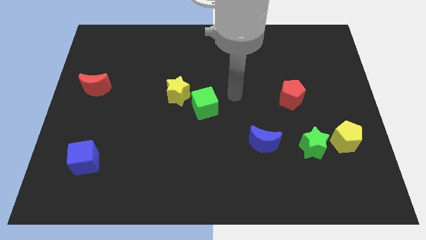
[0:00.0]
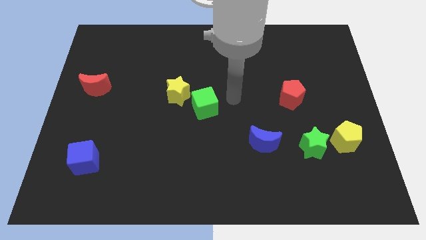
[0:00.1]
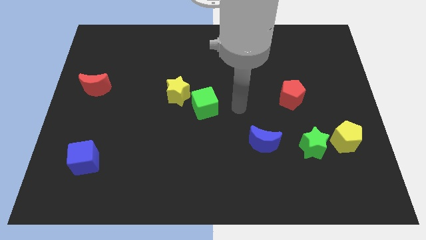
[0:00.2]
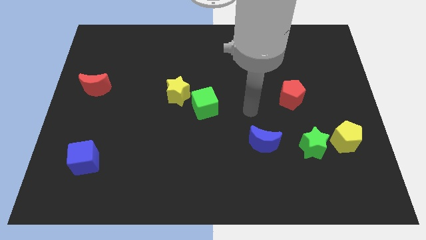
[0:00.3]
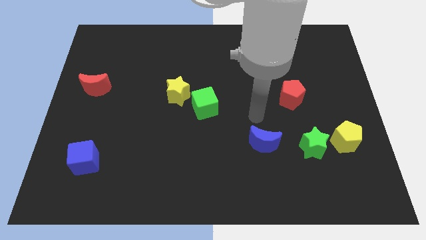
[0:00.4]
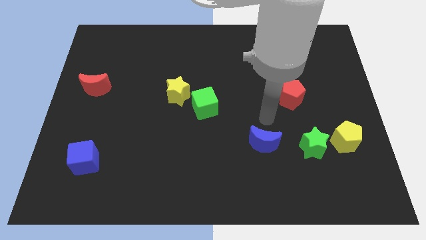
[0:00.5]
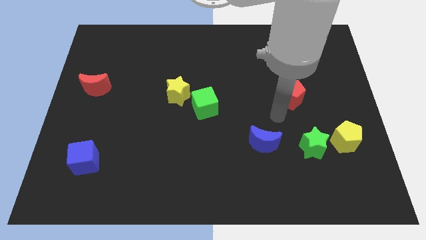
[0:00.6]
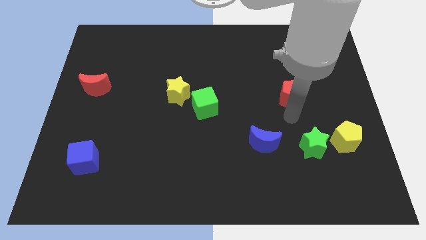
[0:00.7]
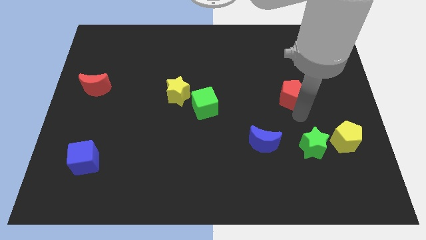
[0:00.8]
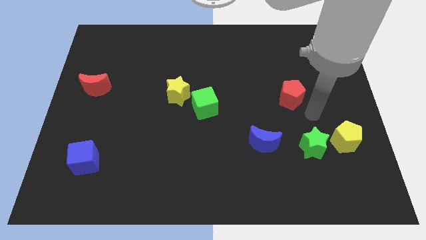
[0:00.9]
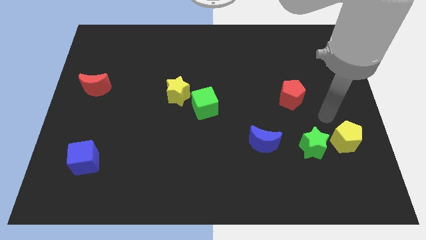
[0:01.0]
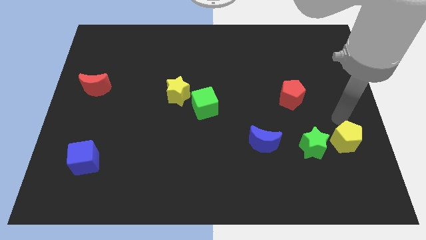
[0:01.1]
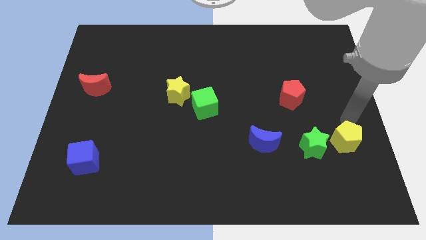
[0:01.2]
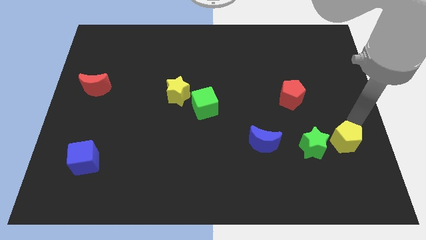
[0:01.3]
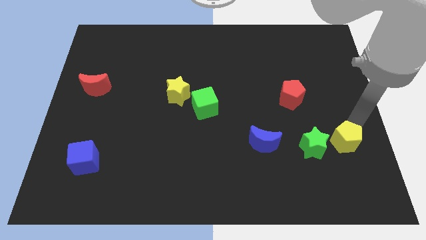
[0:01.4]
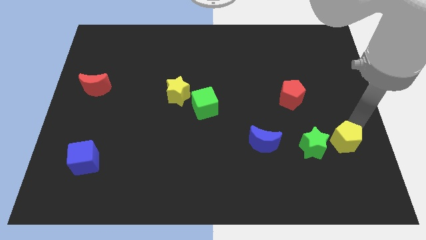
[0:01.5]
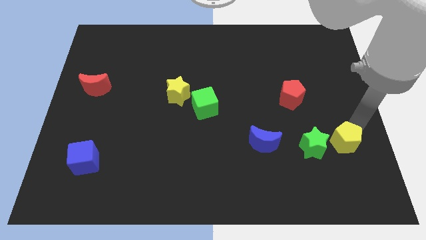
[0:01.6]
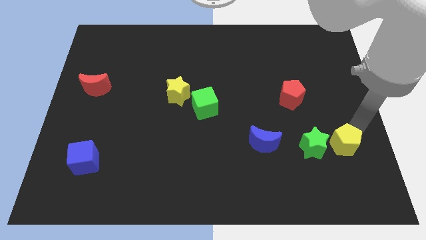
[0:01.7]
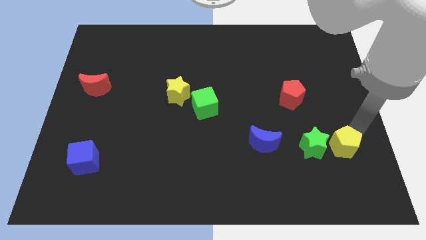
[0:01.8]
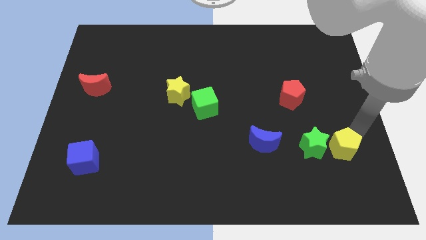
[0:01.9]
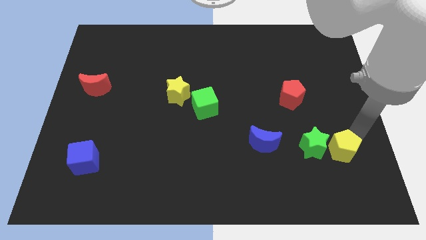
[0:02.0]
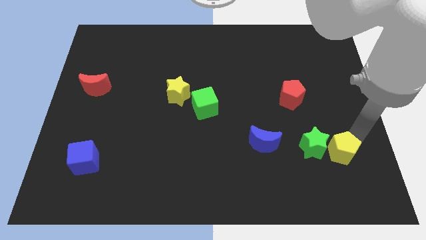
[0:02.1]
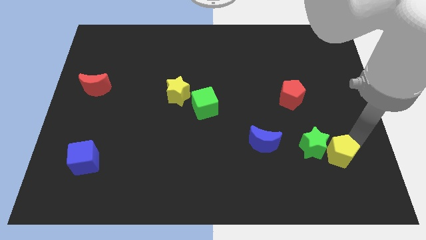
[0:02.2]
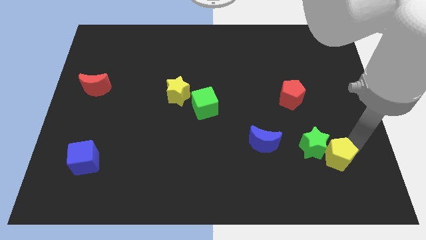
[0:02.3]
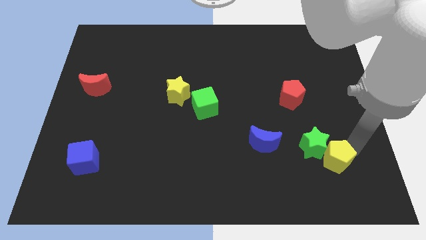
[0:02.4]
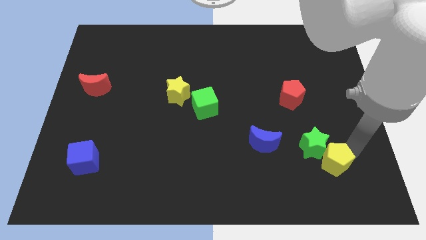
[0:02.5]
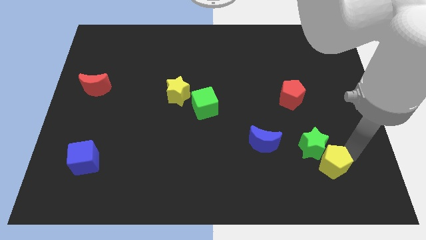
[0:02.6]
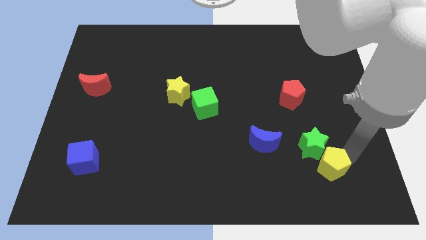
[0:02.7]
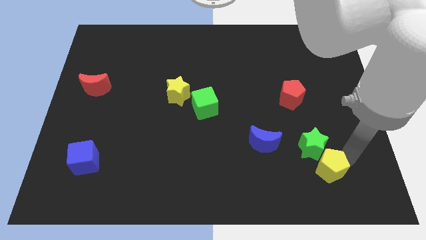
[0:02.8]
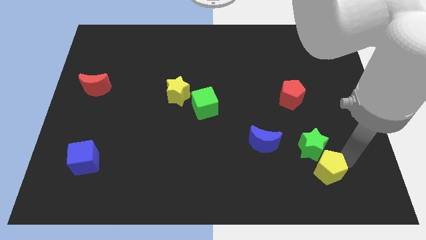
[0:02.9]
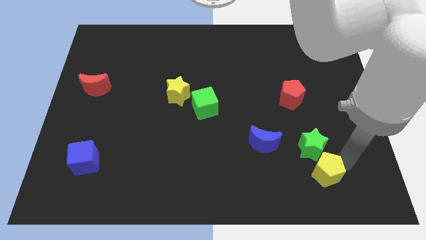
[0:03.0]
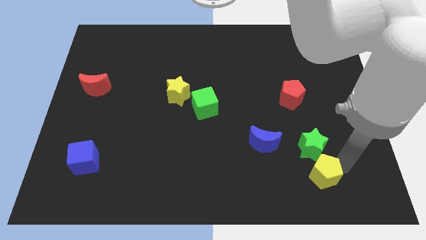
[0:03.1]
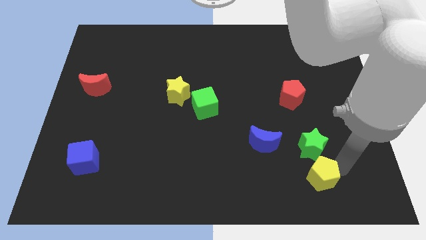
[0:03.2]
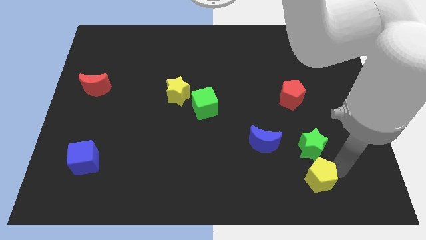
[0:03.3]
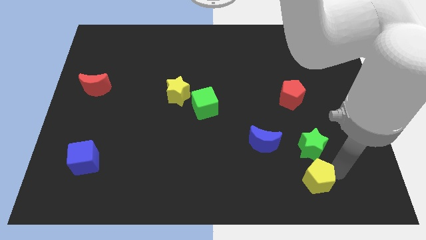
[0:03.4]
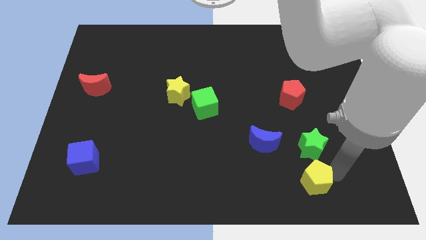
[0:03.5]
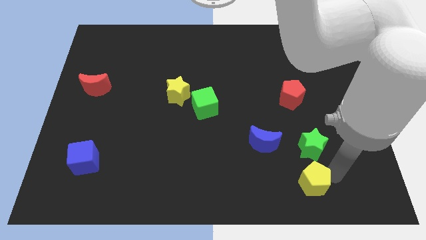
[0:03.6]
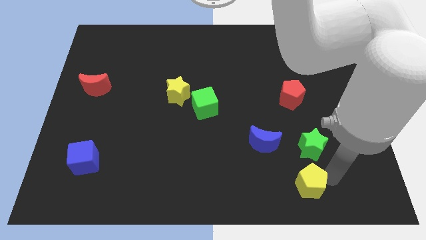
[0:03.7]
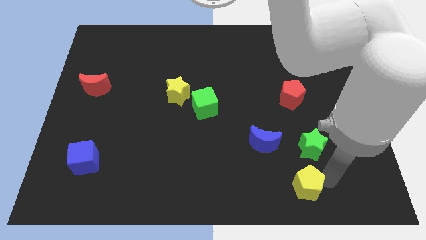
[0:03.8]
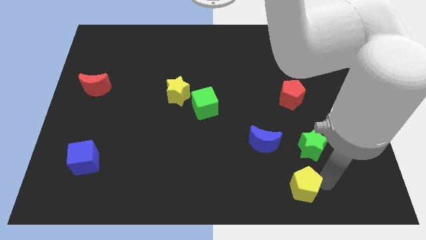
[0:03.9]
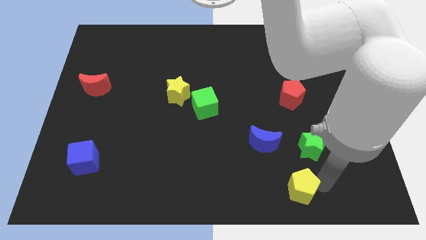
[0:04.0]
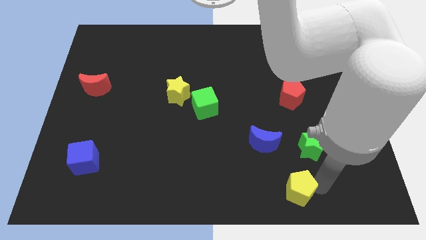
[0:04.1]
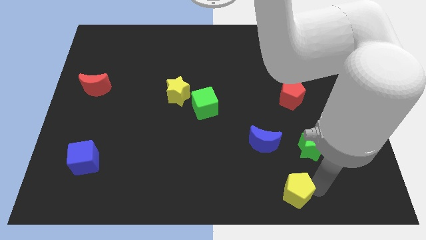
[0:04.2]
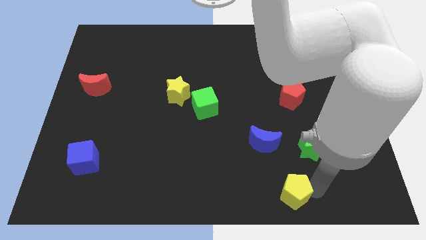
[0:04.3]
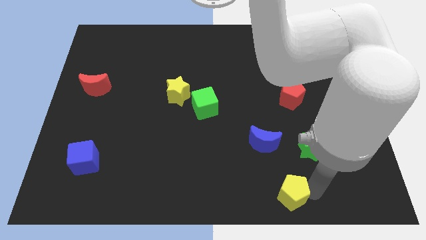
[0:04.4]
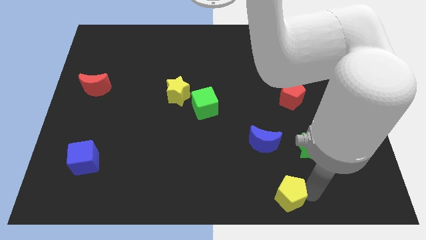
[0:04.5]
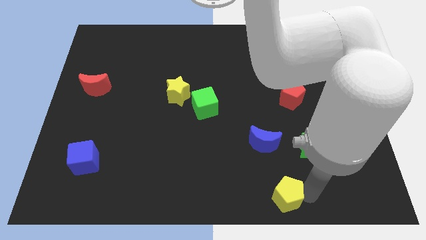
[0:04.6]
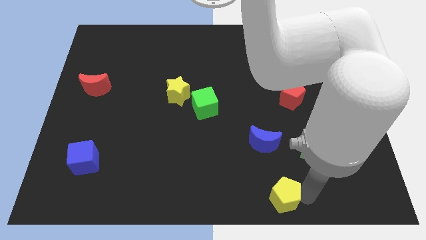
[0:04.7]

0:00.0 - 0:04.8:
slide the yellow pentagon to the bottom side

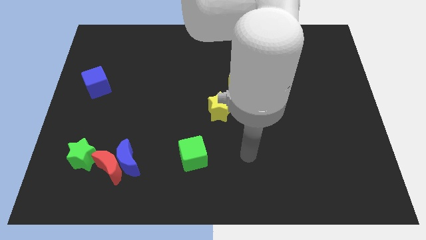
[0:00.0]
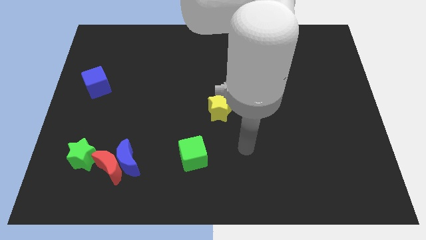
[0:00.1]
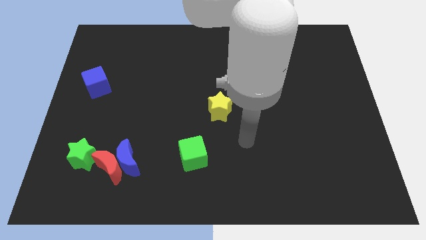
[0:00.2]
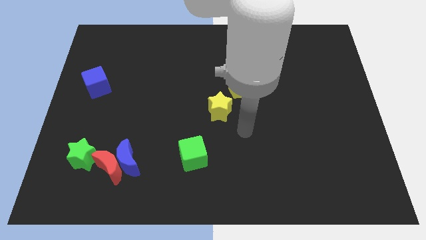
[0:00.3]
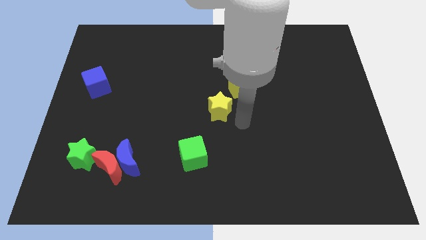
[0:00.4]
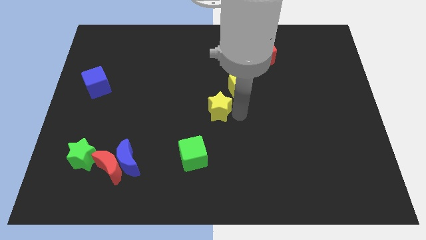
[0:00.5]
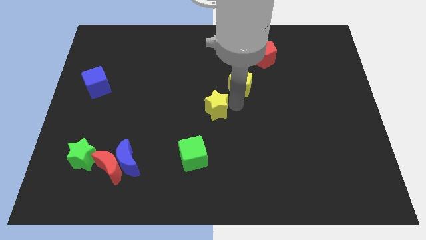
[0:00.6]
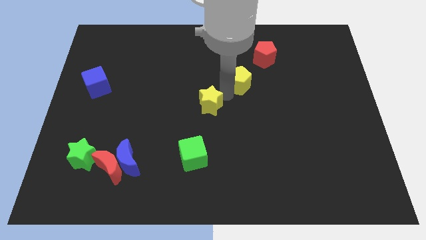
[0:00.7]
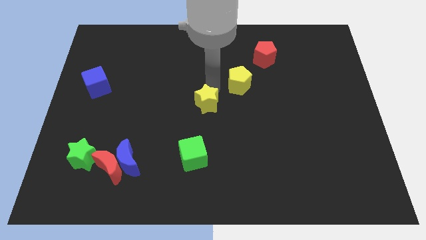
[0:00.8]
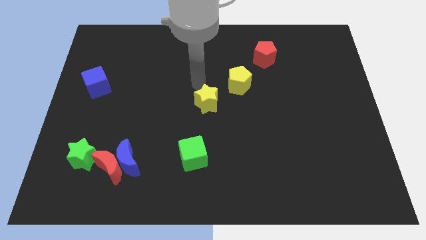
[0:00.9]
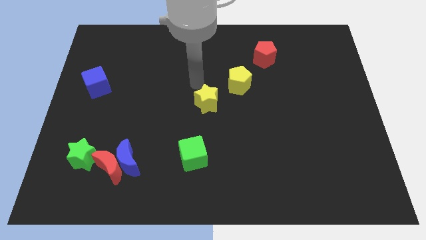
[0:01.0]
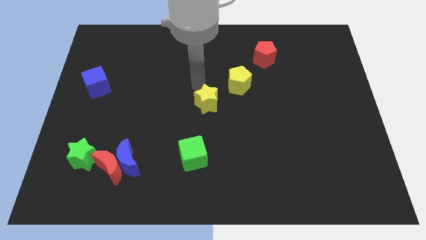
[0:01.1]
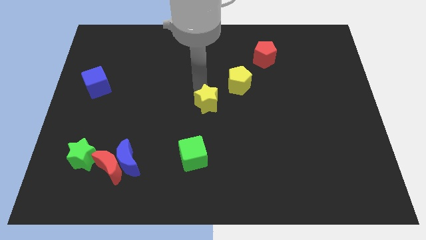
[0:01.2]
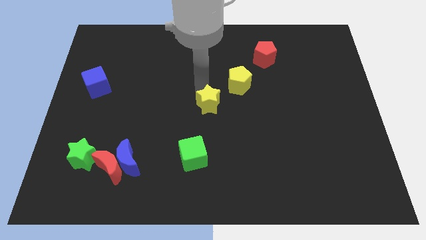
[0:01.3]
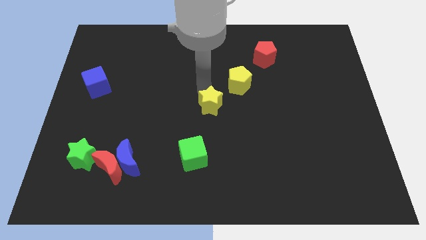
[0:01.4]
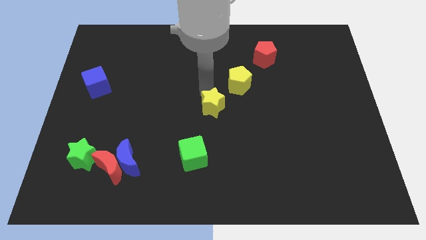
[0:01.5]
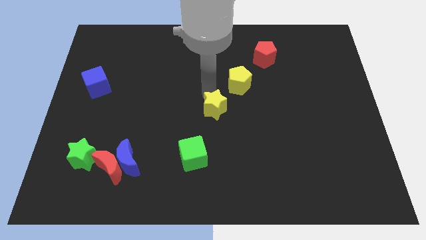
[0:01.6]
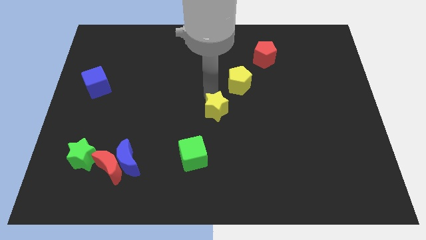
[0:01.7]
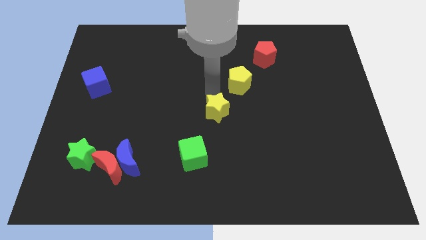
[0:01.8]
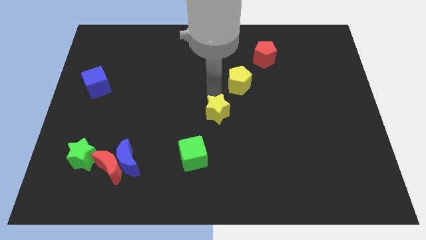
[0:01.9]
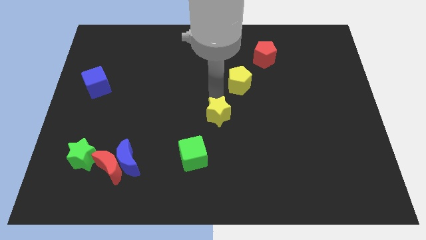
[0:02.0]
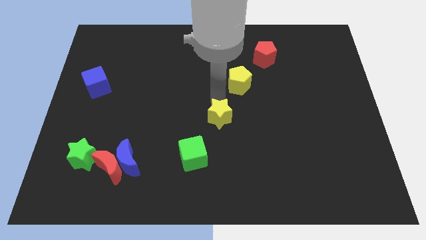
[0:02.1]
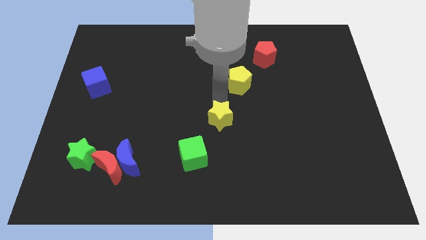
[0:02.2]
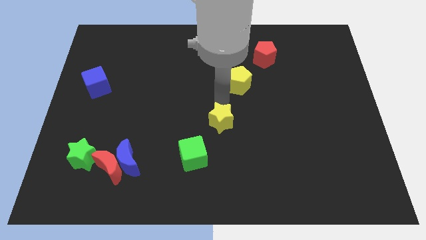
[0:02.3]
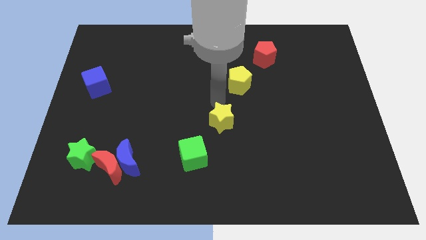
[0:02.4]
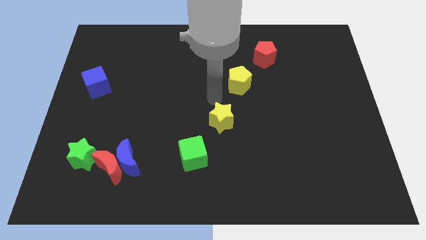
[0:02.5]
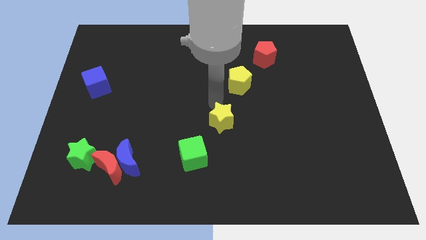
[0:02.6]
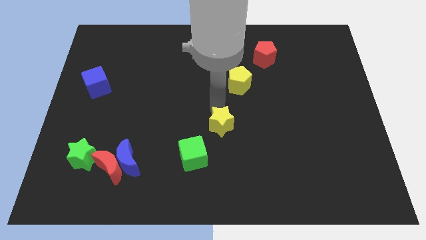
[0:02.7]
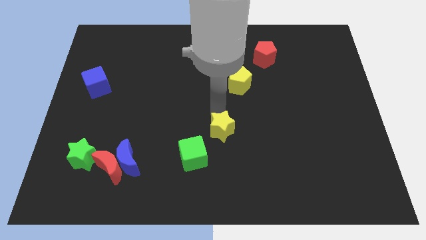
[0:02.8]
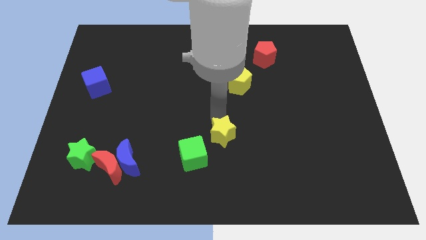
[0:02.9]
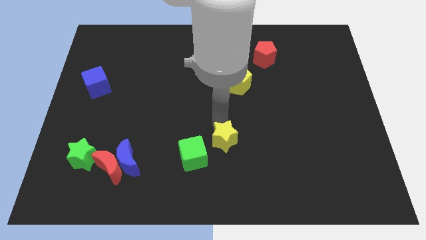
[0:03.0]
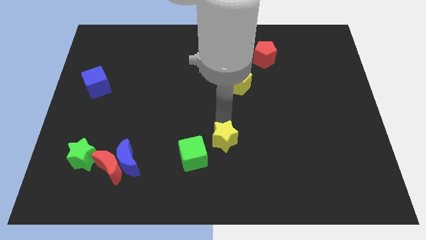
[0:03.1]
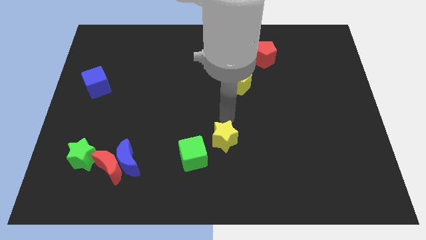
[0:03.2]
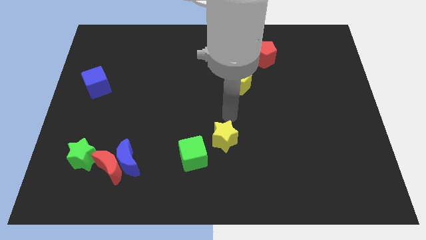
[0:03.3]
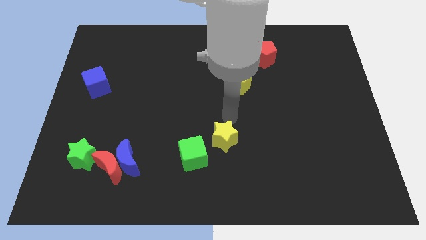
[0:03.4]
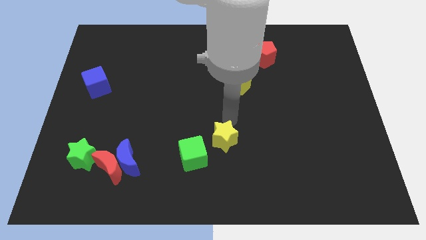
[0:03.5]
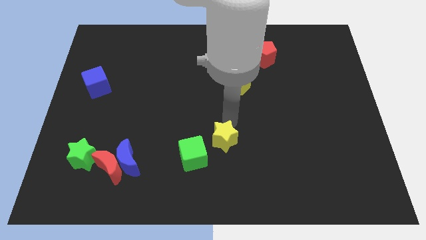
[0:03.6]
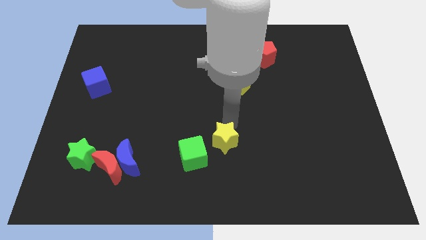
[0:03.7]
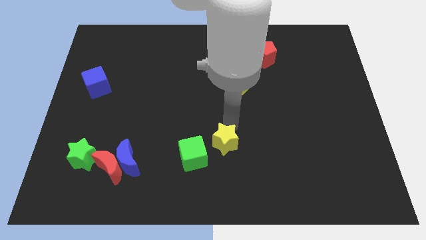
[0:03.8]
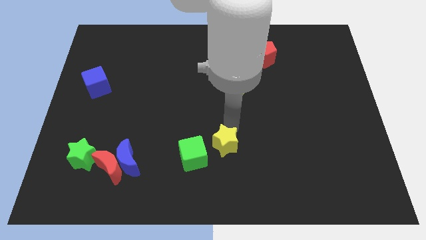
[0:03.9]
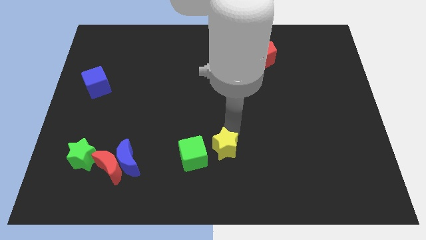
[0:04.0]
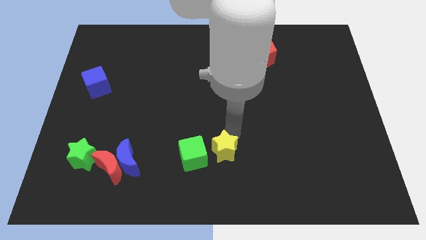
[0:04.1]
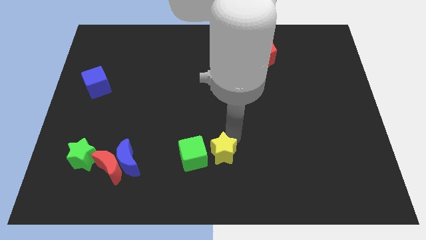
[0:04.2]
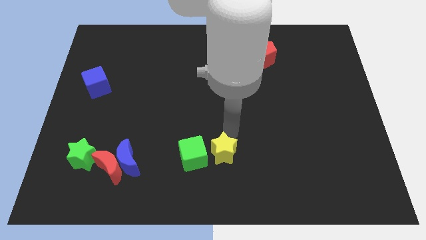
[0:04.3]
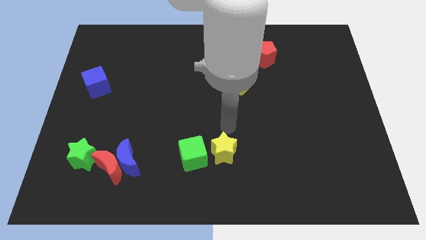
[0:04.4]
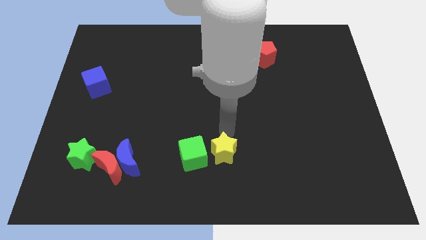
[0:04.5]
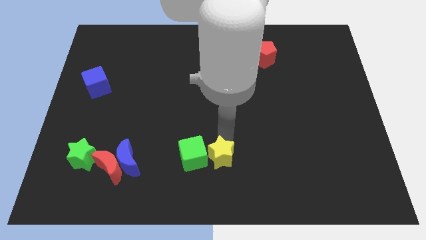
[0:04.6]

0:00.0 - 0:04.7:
push the yellow star to the bottom
